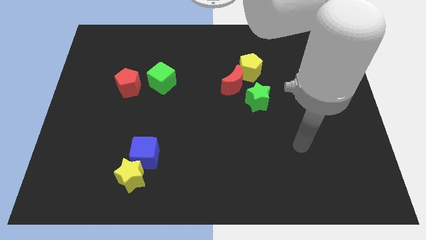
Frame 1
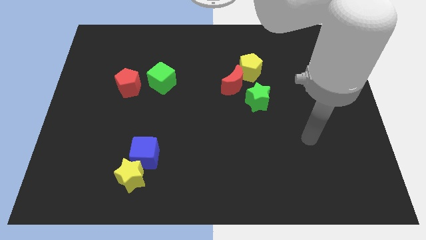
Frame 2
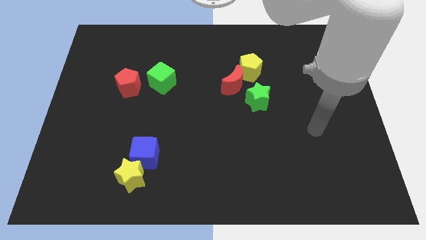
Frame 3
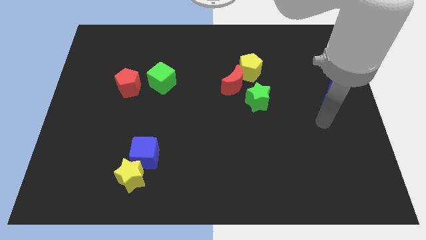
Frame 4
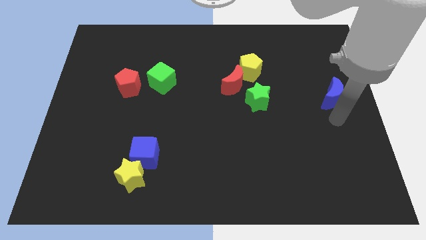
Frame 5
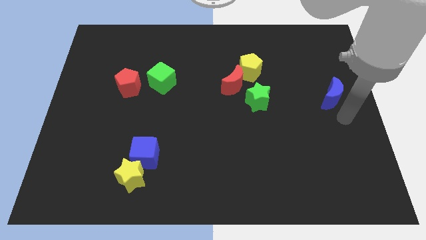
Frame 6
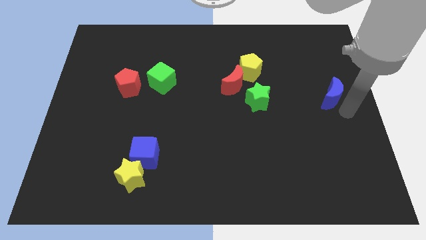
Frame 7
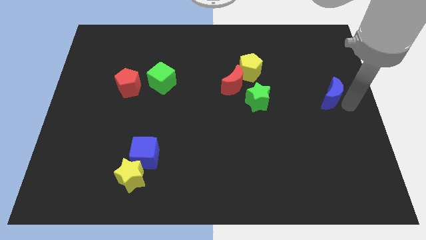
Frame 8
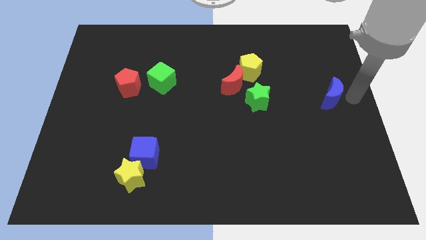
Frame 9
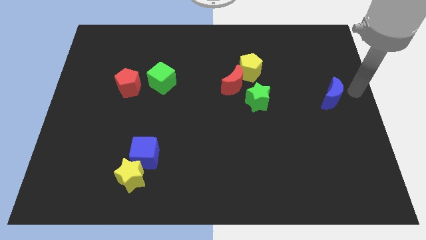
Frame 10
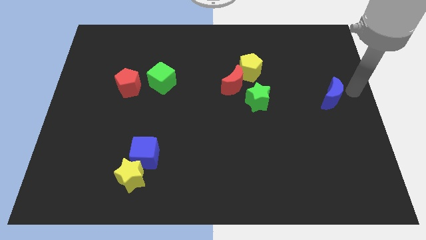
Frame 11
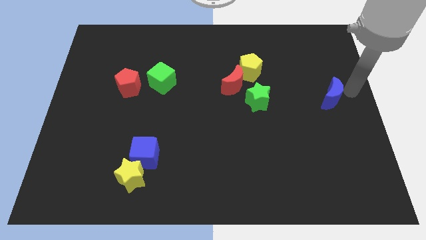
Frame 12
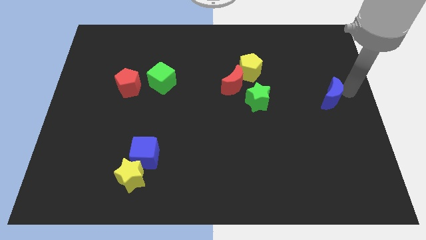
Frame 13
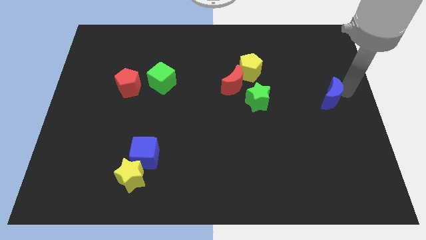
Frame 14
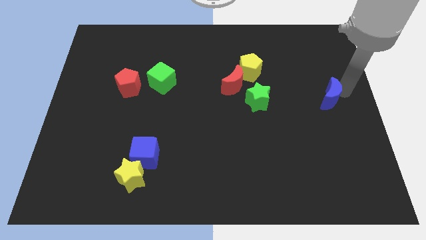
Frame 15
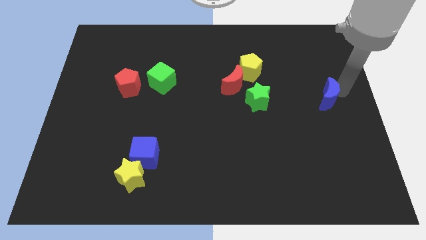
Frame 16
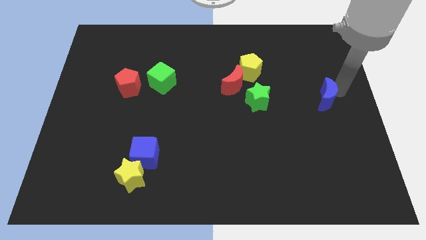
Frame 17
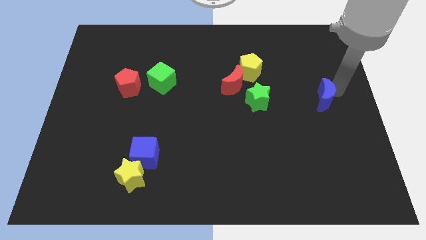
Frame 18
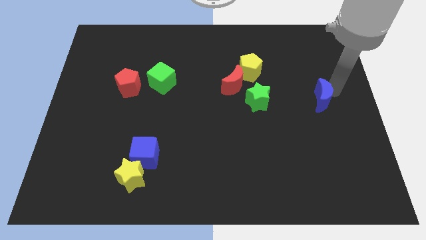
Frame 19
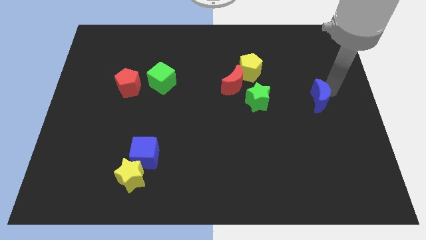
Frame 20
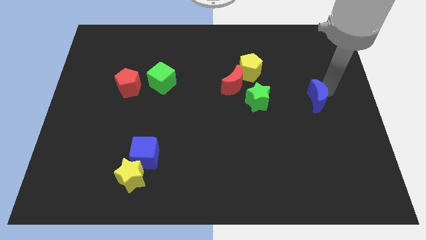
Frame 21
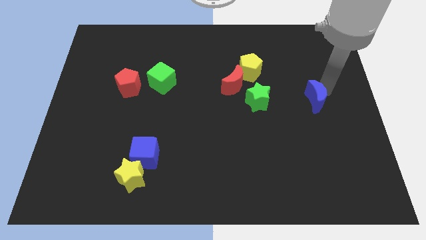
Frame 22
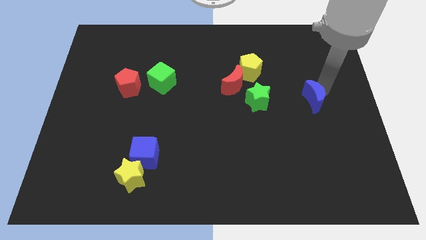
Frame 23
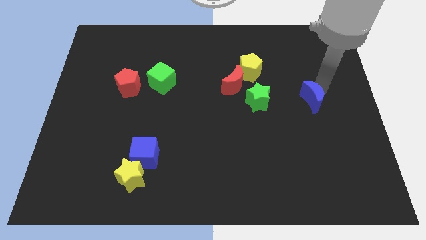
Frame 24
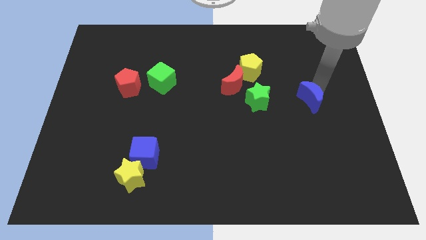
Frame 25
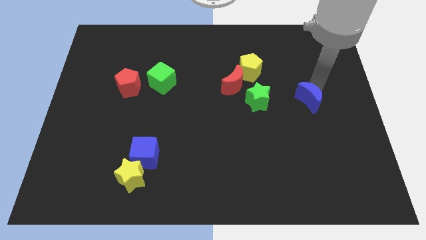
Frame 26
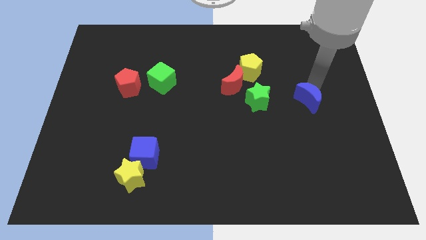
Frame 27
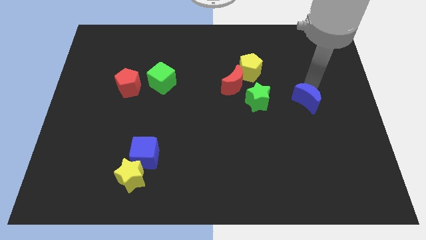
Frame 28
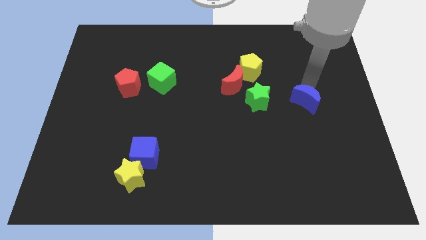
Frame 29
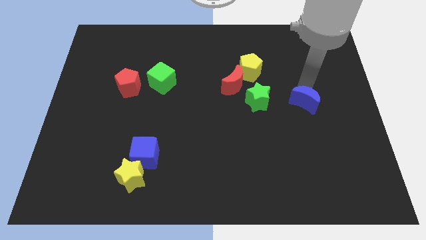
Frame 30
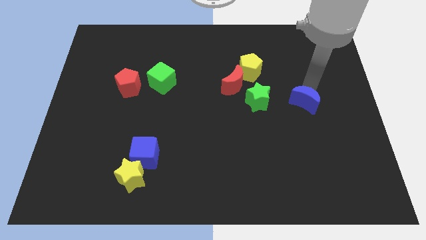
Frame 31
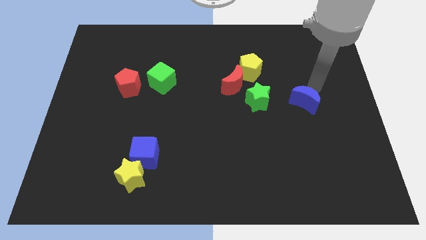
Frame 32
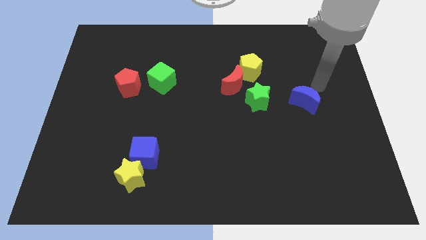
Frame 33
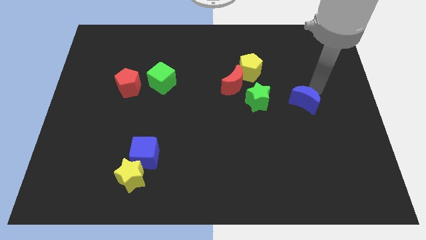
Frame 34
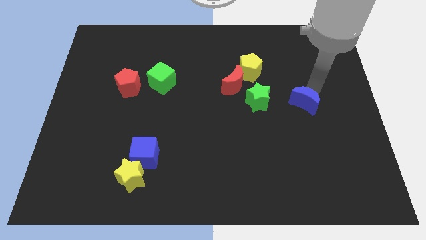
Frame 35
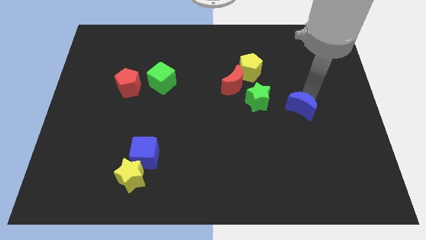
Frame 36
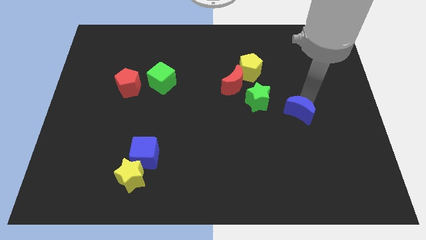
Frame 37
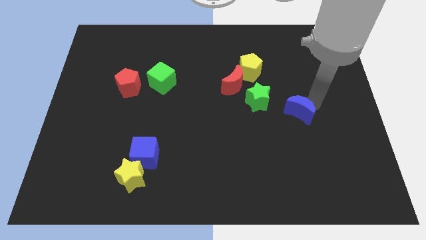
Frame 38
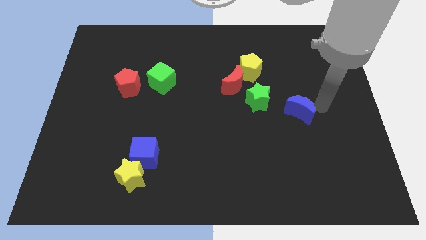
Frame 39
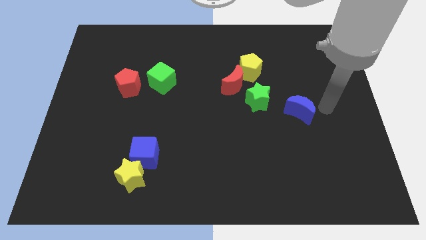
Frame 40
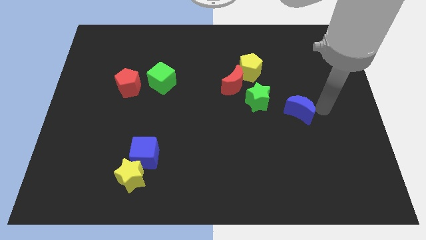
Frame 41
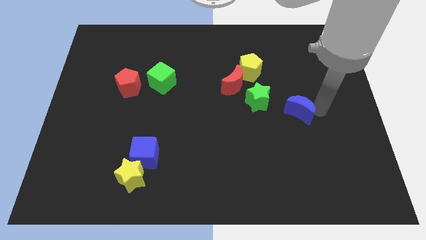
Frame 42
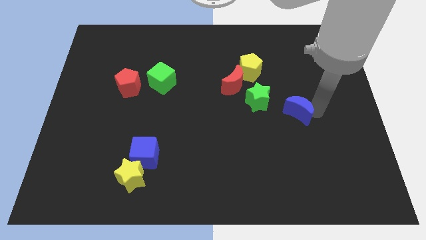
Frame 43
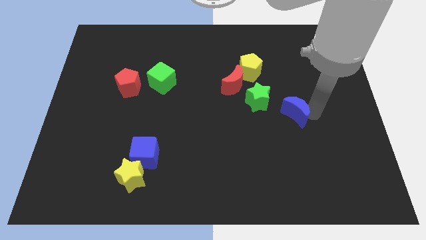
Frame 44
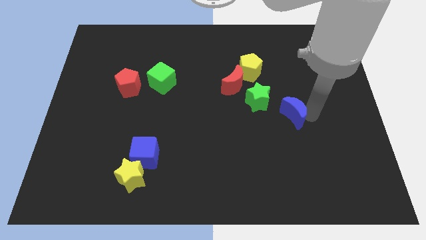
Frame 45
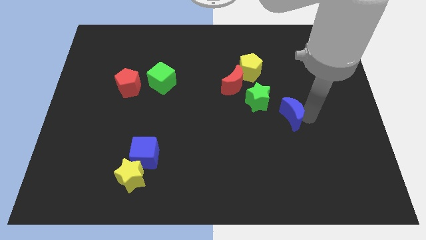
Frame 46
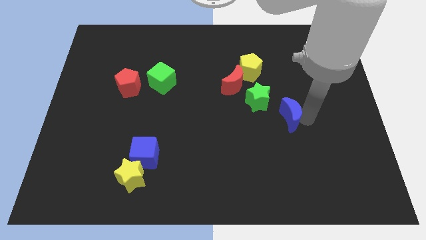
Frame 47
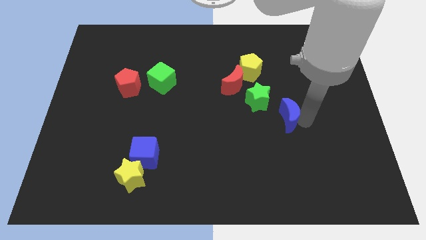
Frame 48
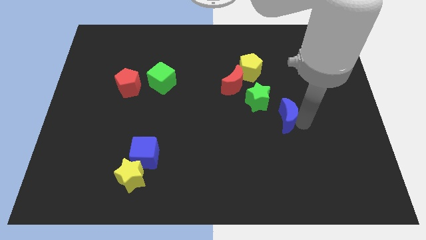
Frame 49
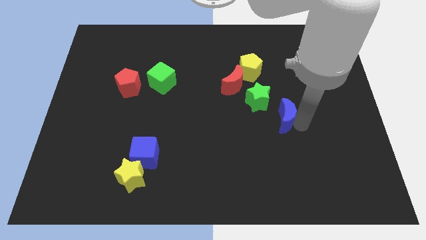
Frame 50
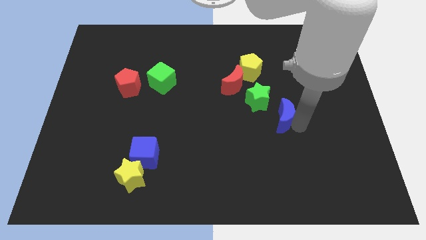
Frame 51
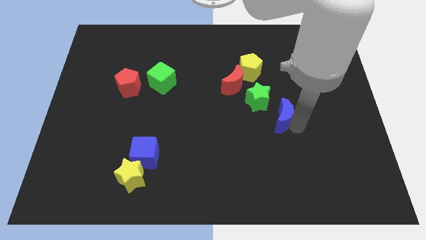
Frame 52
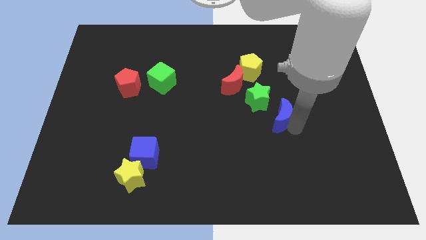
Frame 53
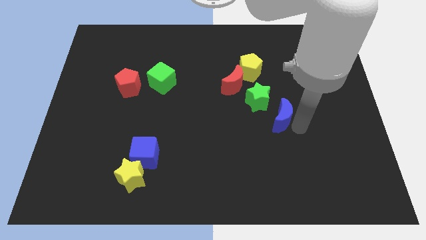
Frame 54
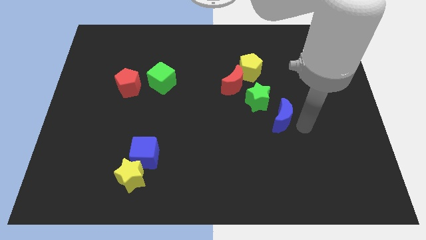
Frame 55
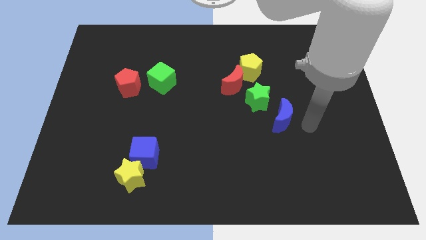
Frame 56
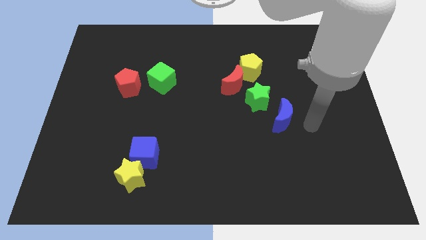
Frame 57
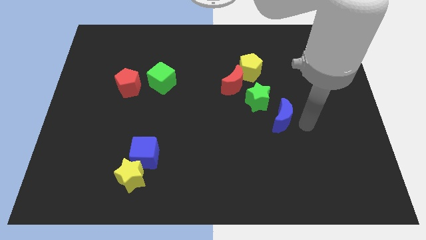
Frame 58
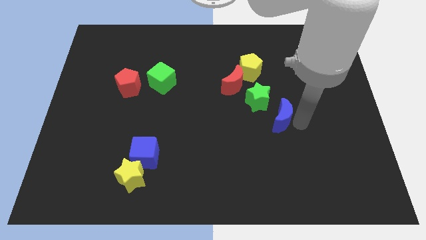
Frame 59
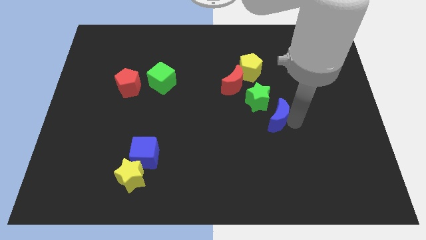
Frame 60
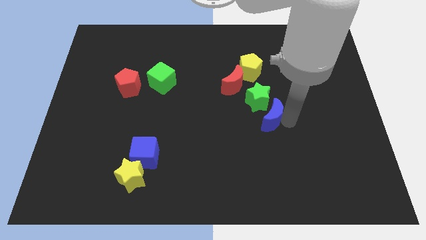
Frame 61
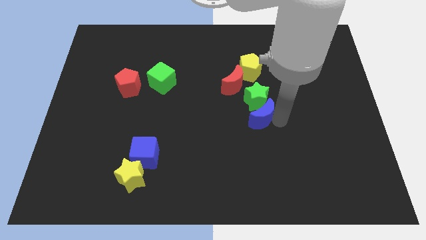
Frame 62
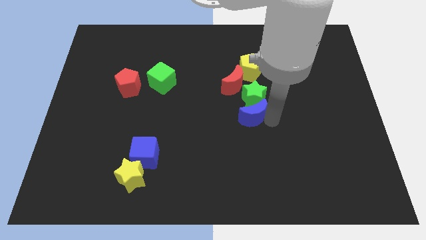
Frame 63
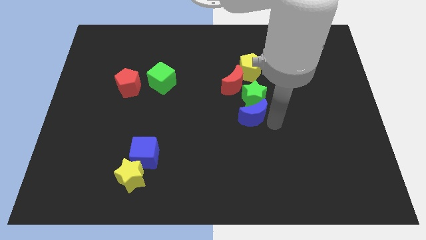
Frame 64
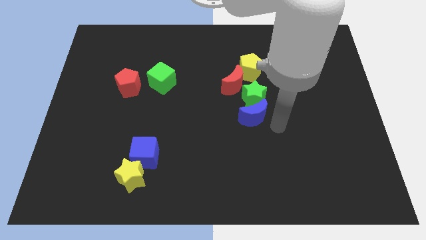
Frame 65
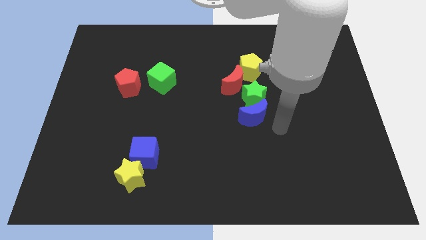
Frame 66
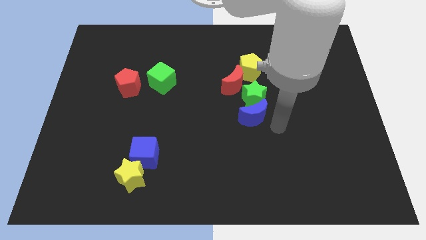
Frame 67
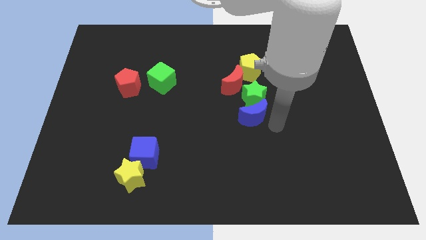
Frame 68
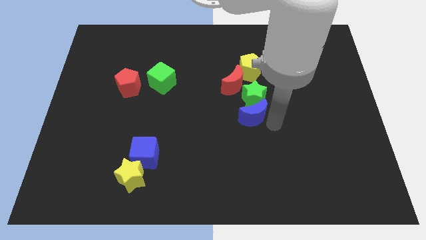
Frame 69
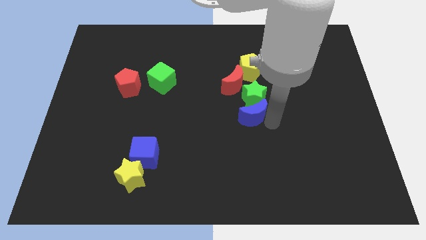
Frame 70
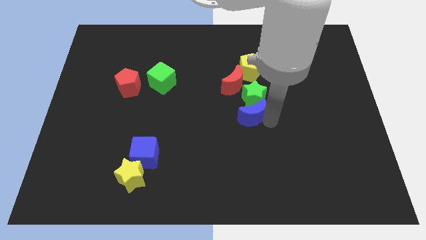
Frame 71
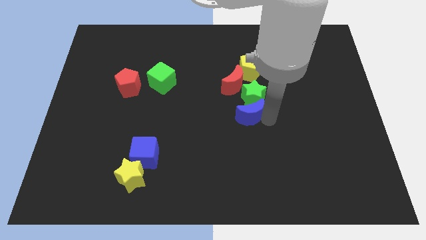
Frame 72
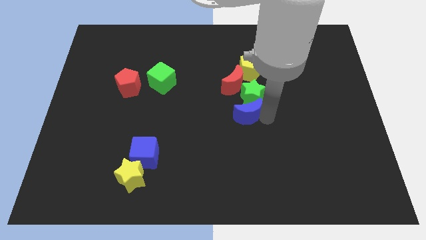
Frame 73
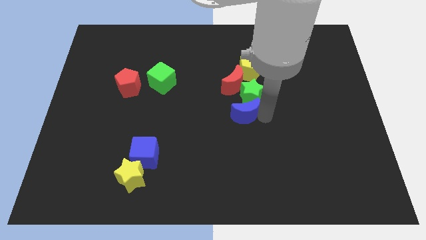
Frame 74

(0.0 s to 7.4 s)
slide the blue moon to the left

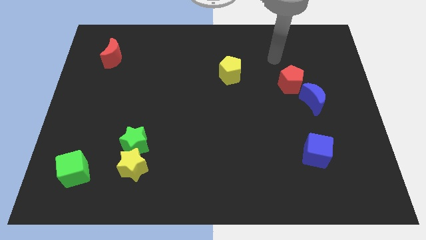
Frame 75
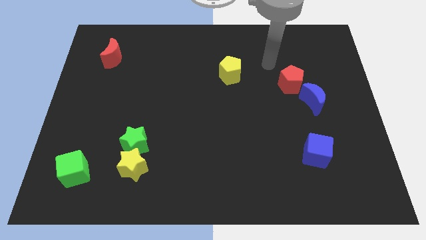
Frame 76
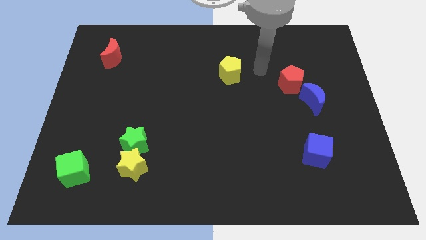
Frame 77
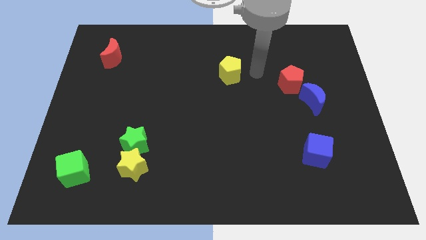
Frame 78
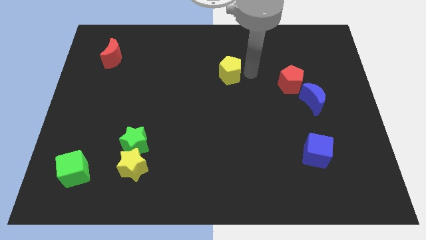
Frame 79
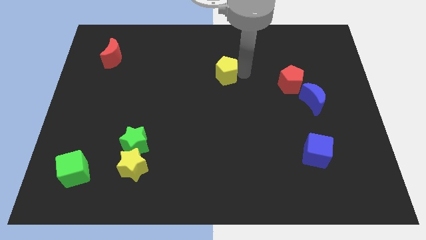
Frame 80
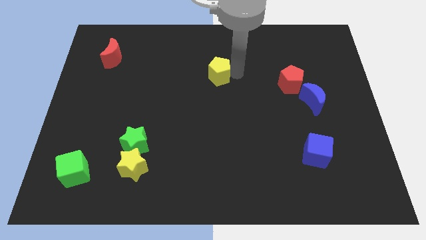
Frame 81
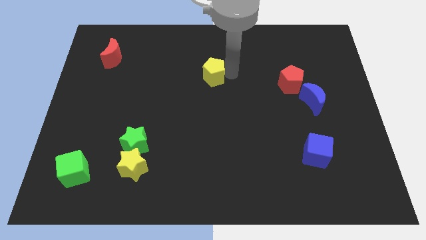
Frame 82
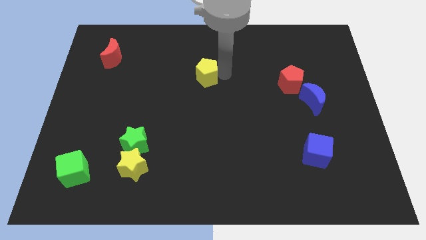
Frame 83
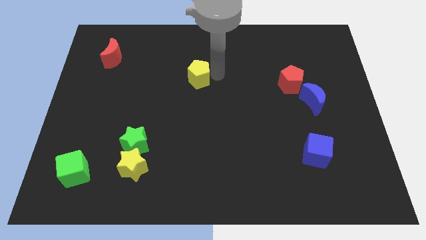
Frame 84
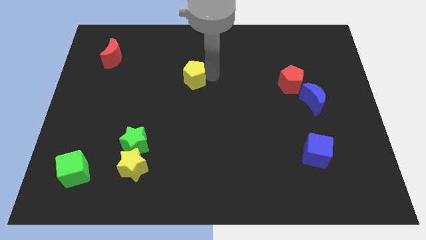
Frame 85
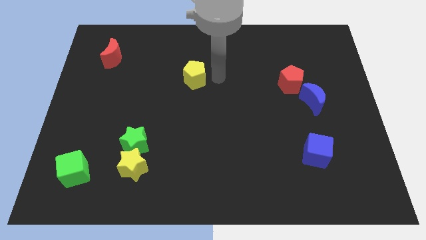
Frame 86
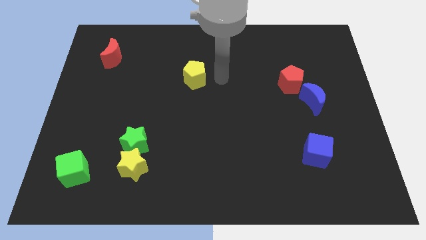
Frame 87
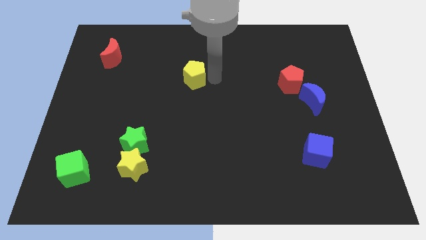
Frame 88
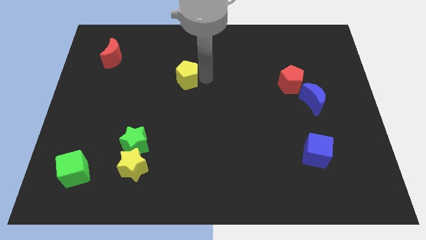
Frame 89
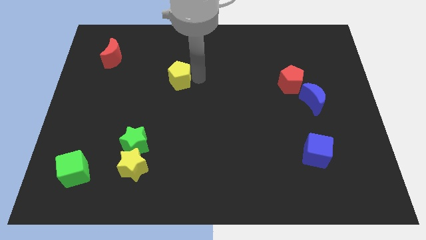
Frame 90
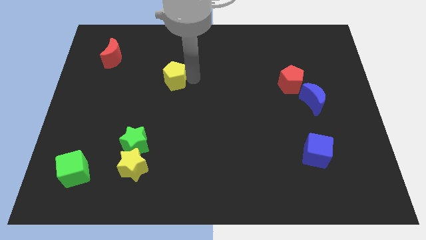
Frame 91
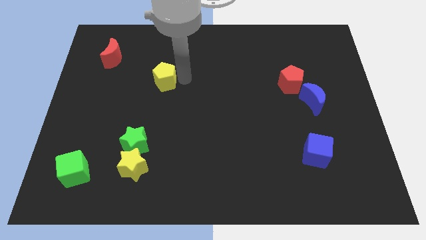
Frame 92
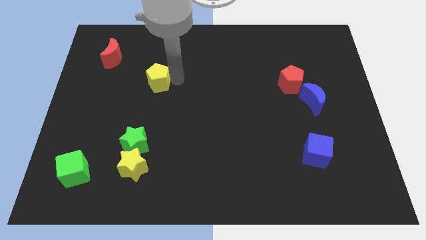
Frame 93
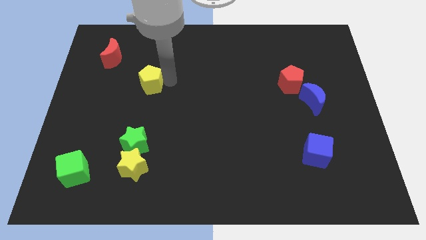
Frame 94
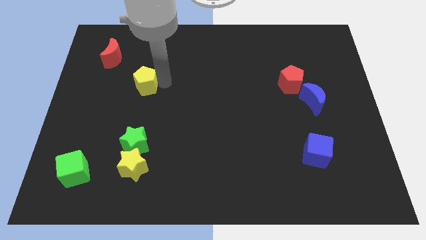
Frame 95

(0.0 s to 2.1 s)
slide the yellow pentagon left
